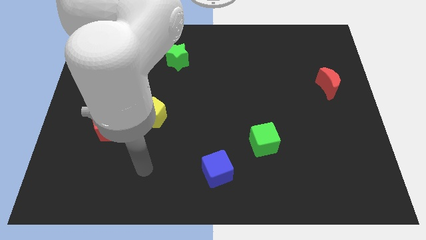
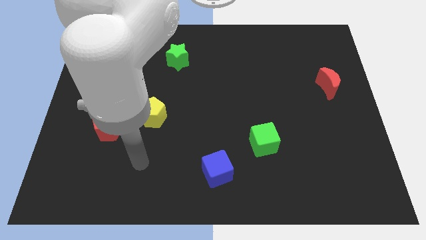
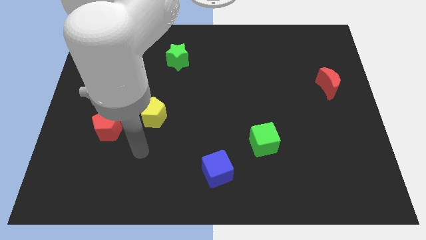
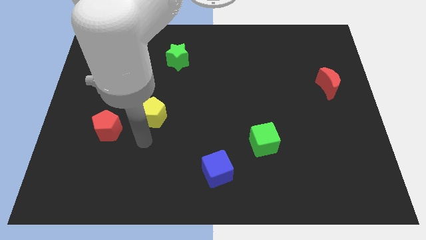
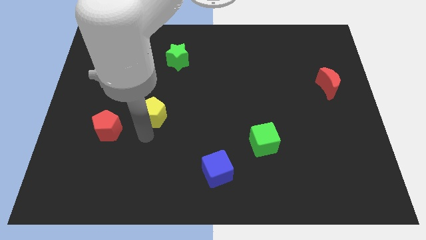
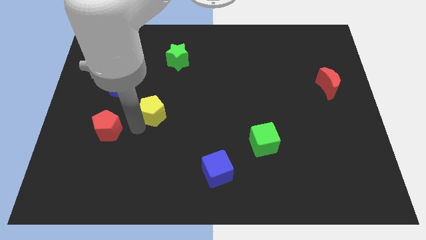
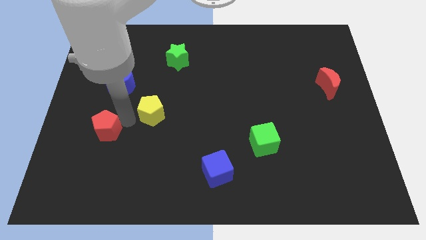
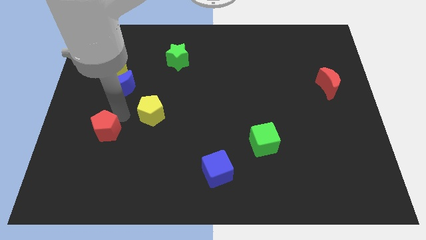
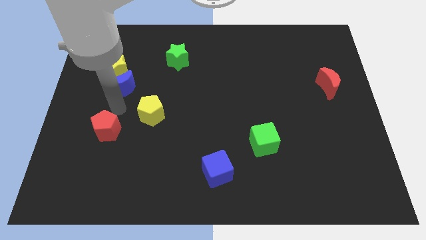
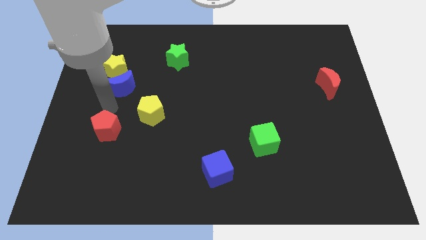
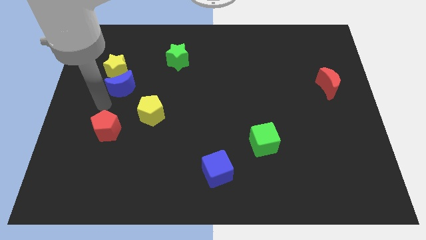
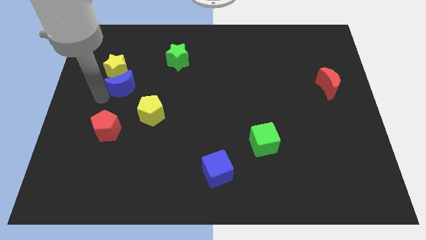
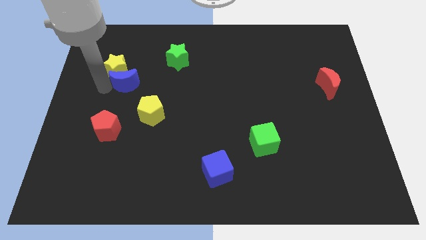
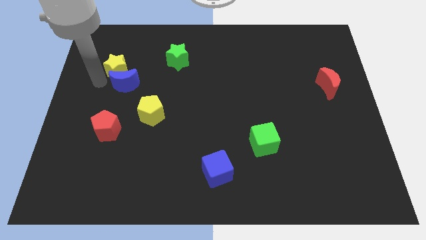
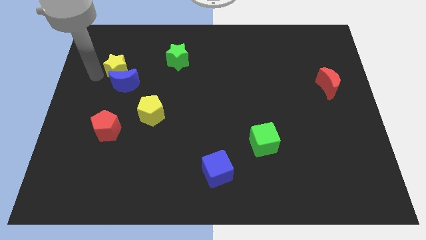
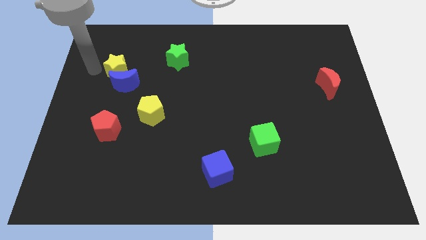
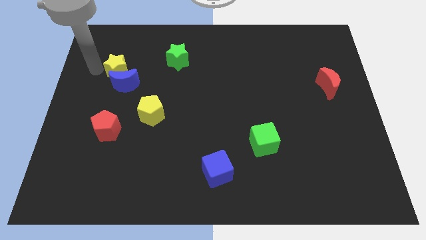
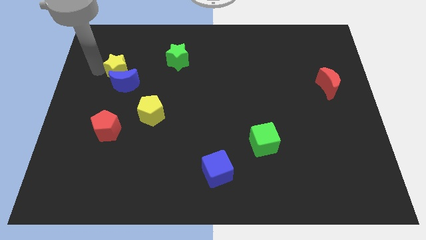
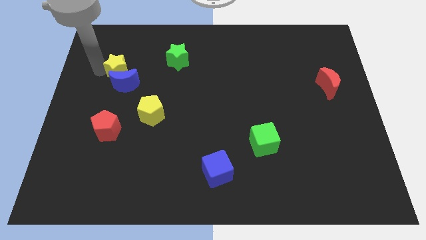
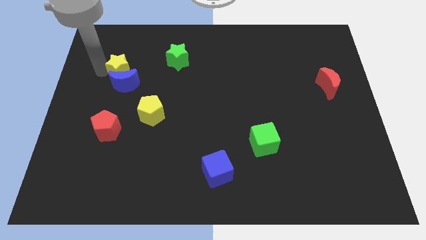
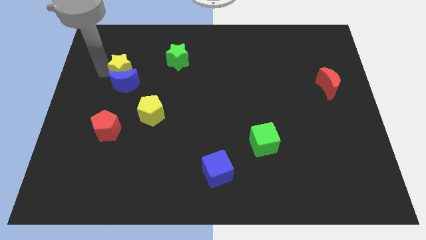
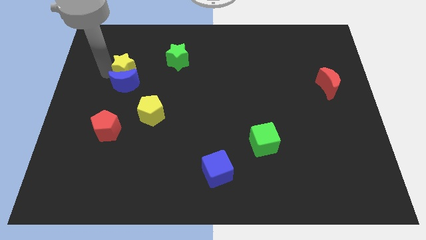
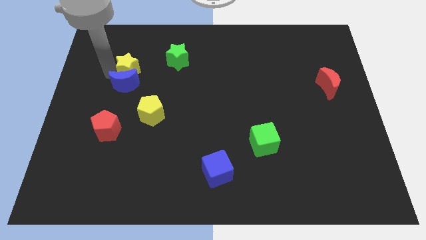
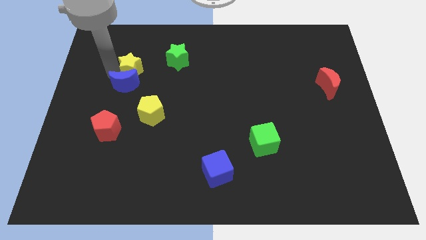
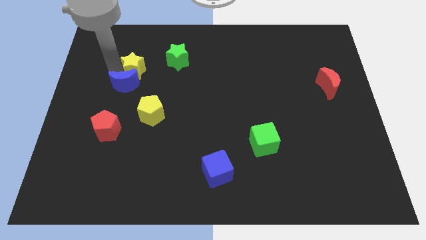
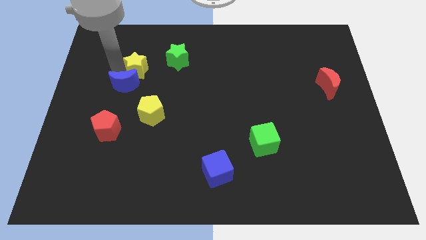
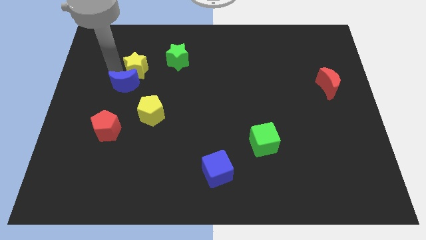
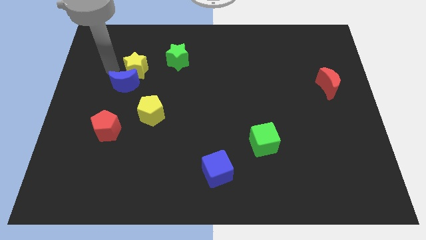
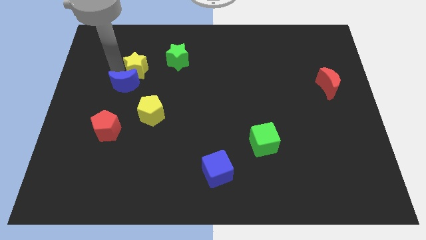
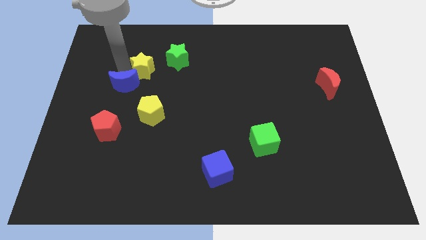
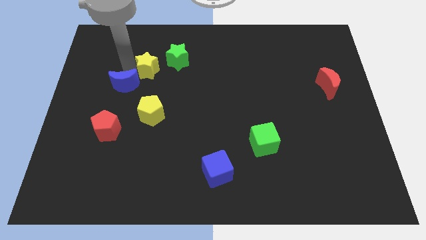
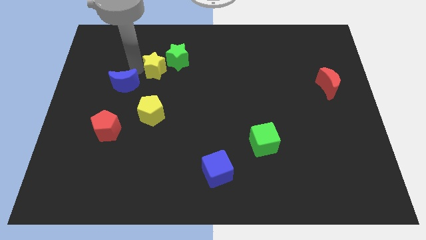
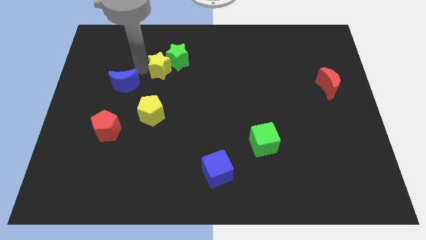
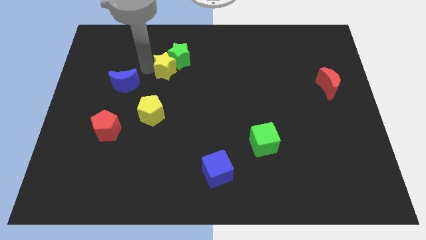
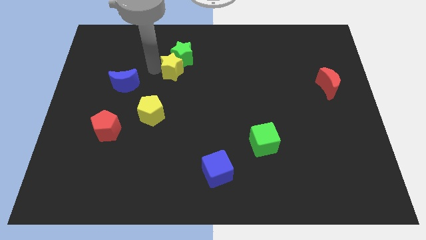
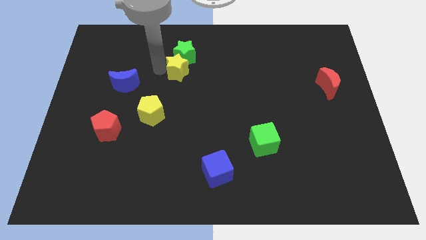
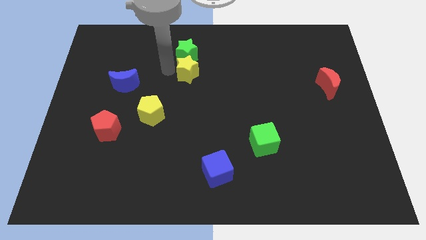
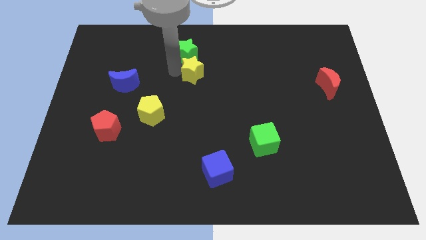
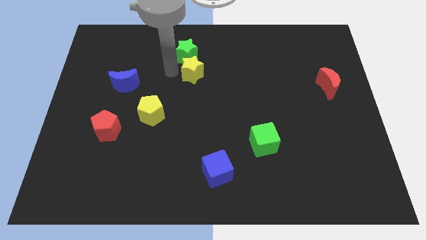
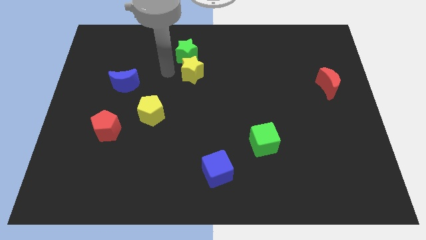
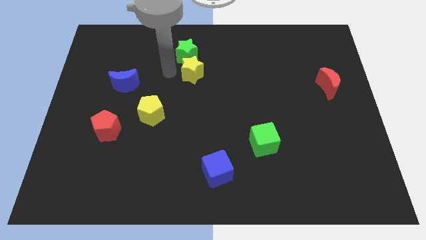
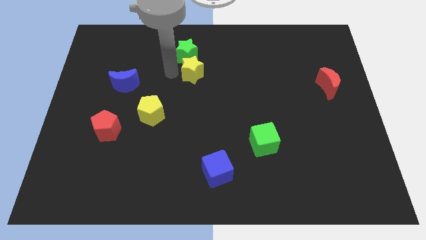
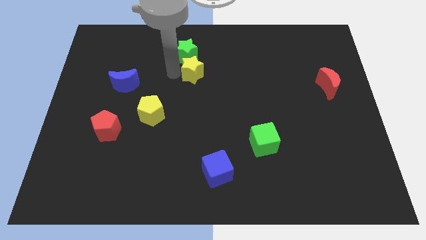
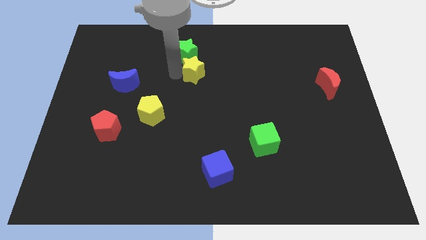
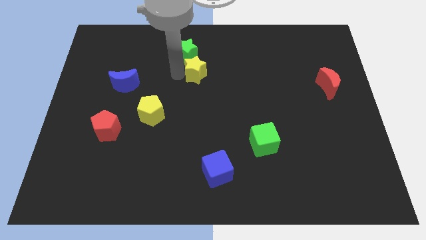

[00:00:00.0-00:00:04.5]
move the yellow star to the right

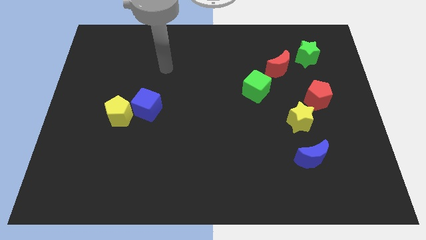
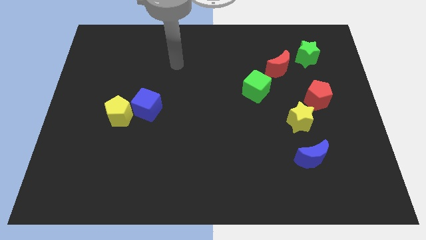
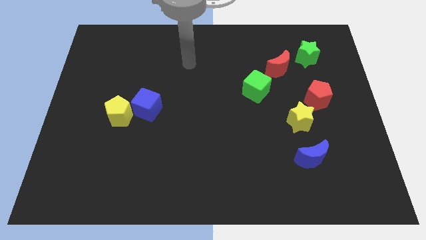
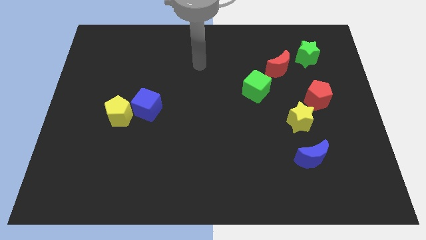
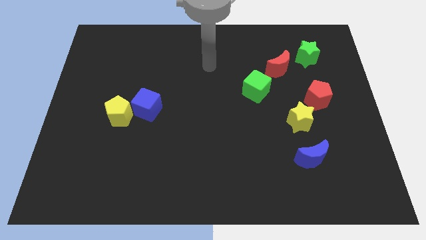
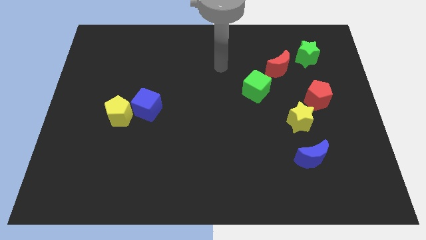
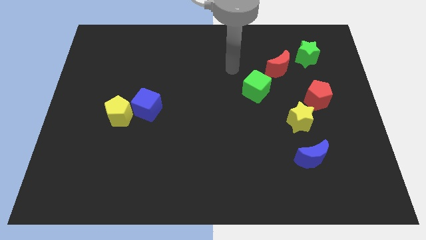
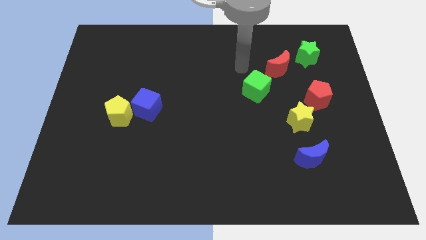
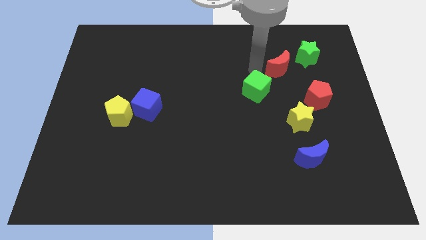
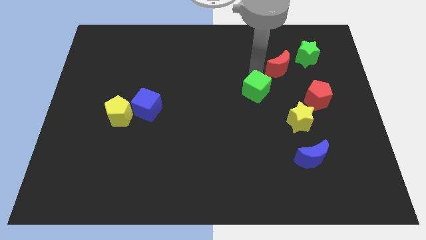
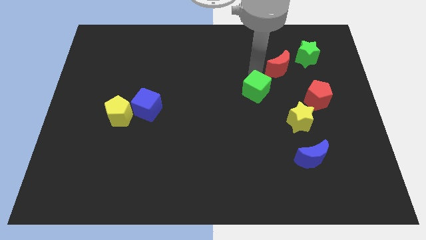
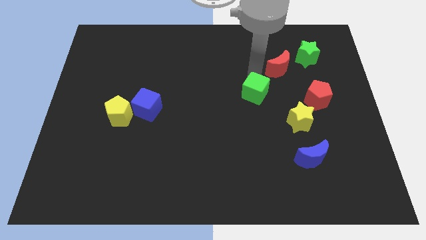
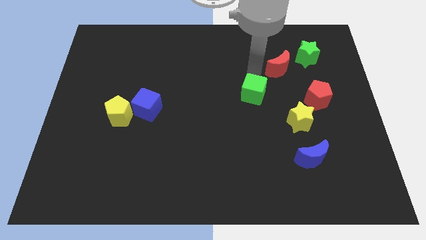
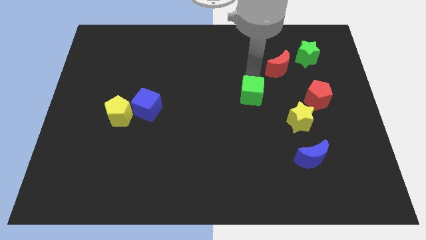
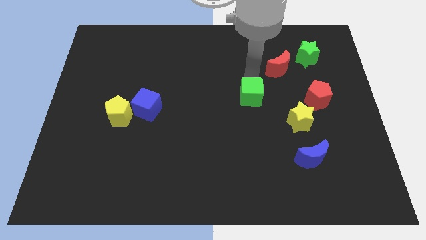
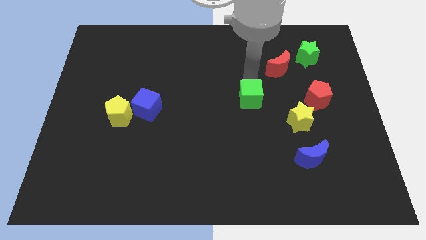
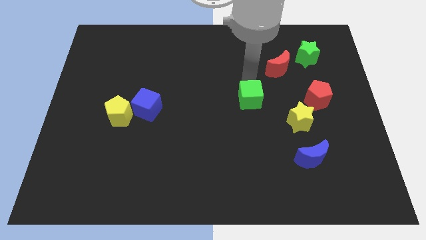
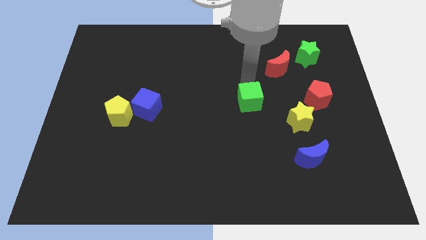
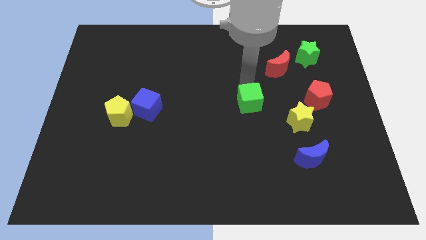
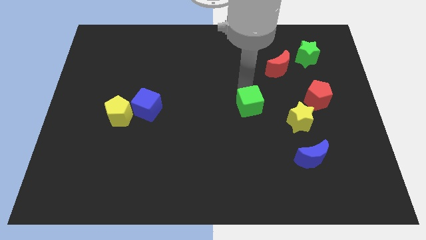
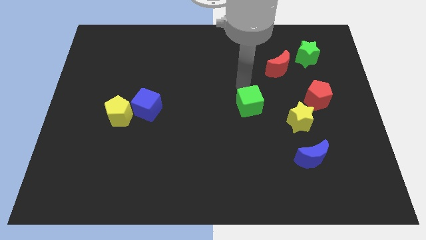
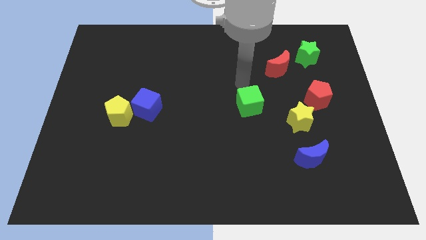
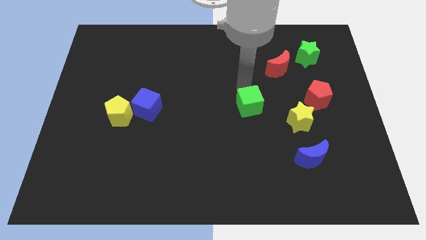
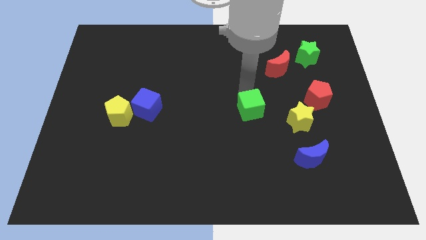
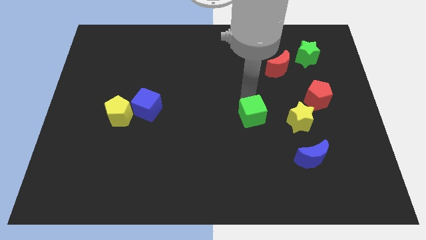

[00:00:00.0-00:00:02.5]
slightly push the green cube down

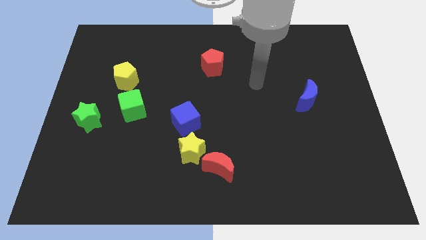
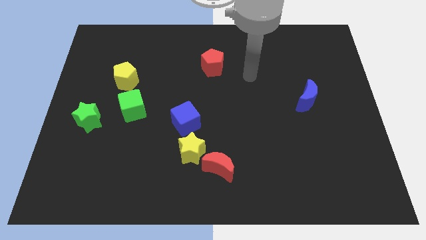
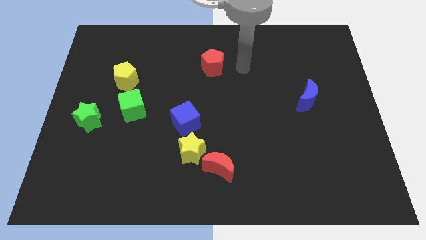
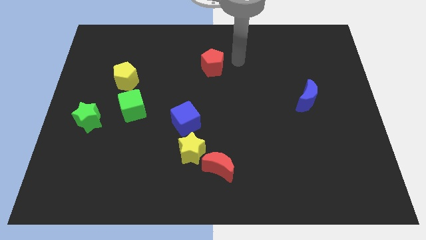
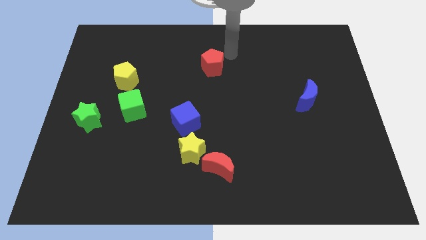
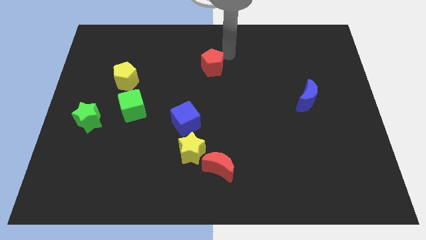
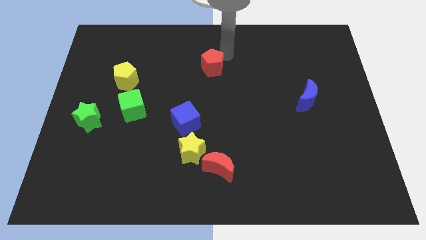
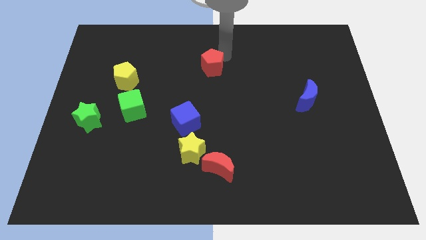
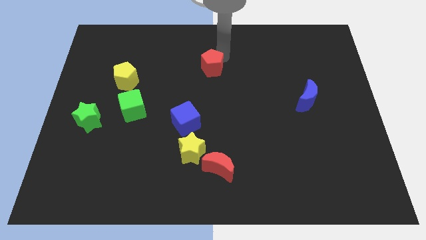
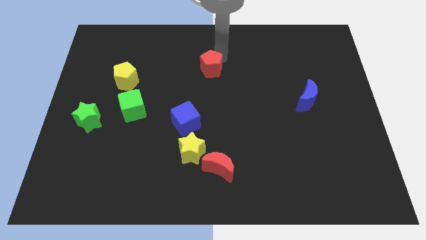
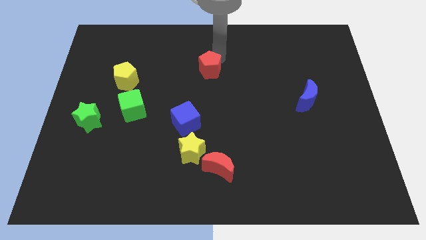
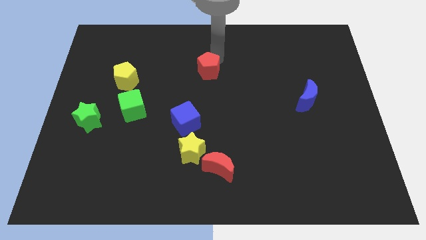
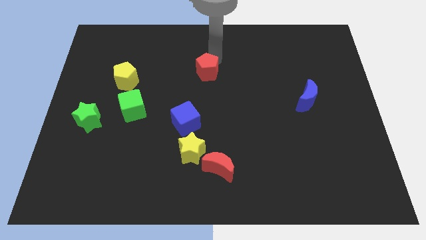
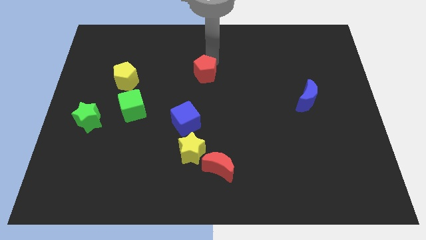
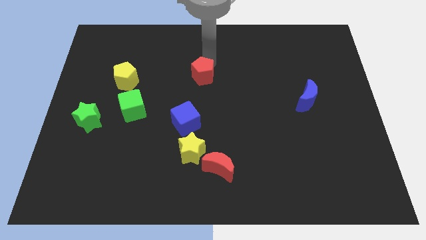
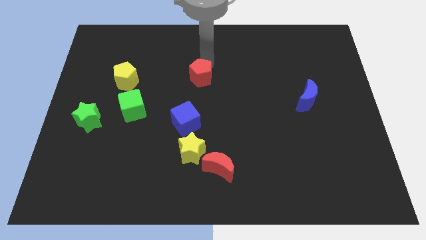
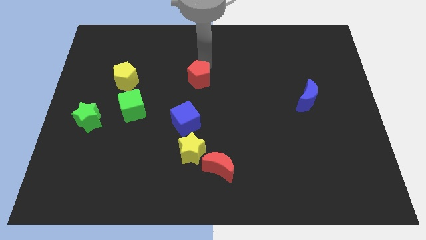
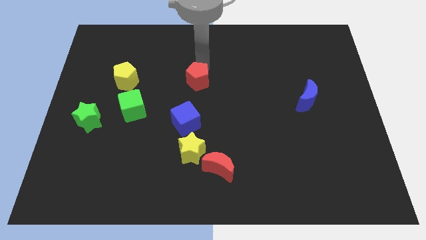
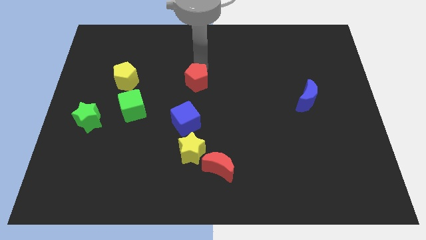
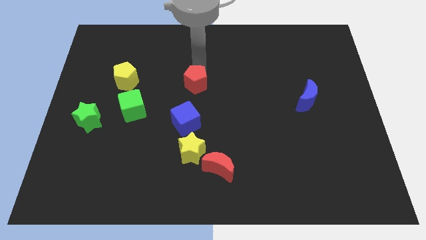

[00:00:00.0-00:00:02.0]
move the red pentagon a bit diagonally downwards and to the left
